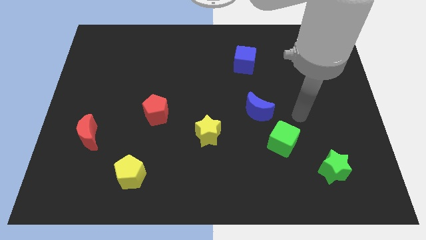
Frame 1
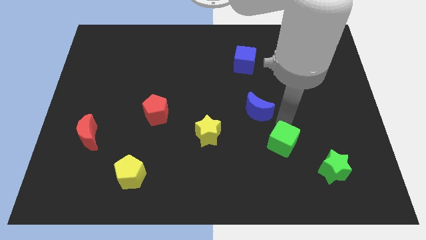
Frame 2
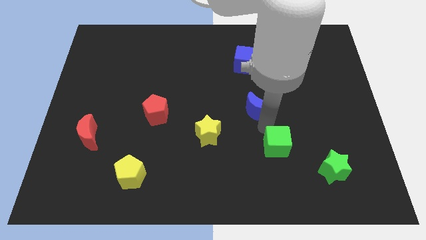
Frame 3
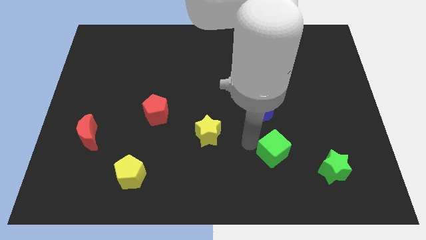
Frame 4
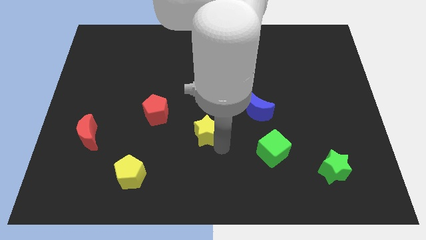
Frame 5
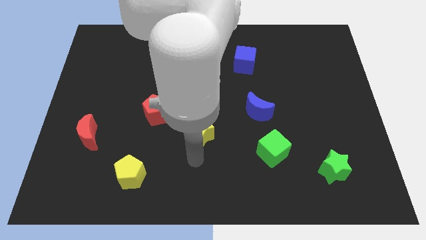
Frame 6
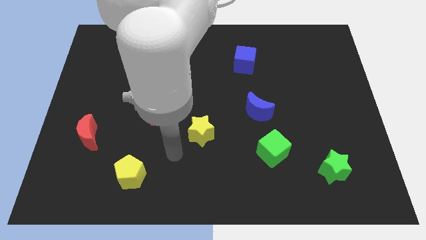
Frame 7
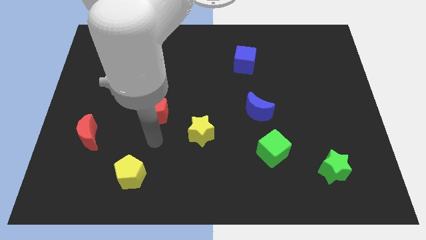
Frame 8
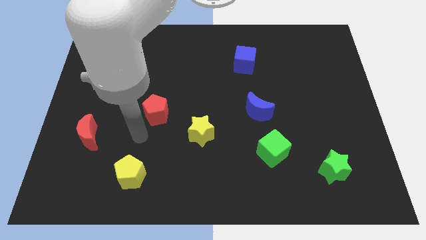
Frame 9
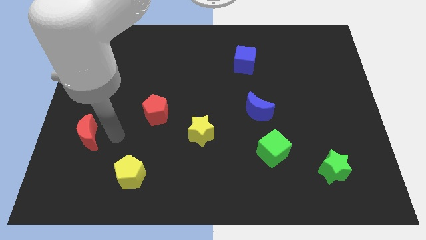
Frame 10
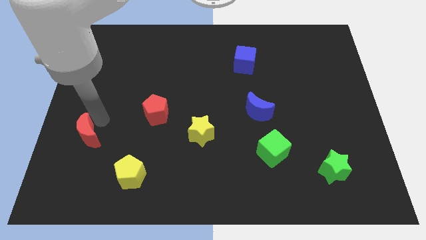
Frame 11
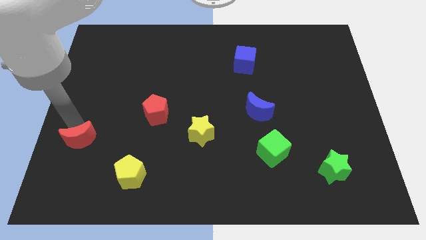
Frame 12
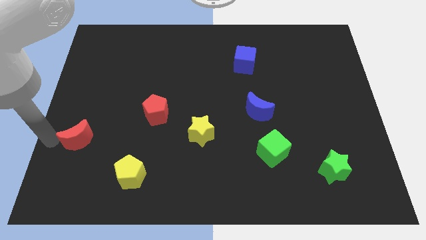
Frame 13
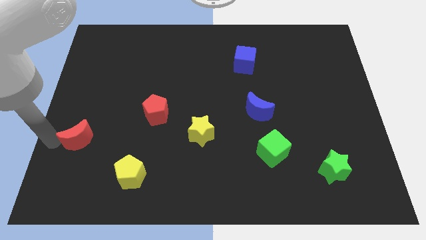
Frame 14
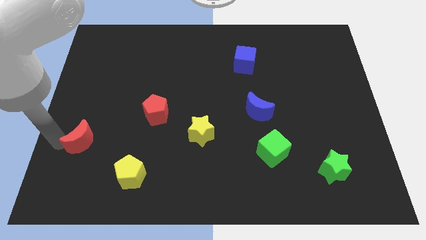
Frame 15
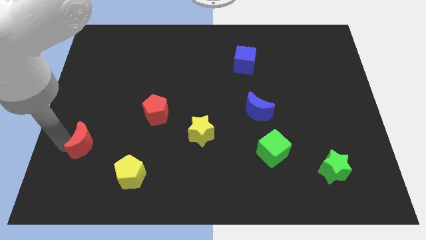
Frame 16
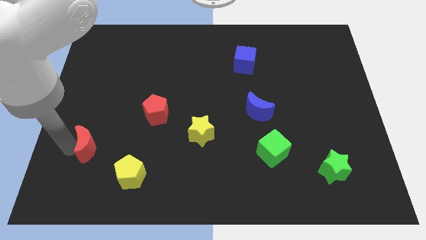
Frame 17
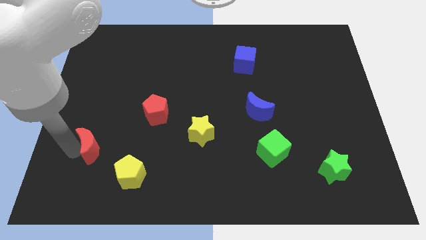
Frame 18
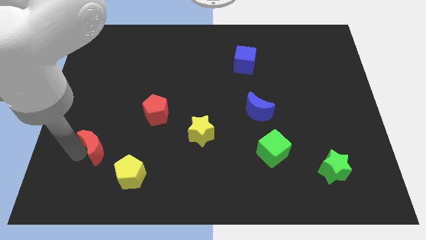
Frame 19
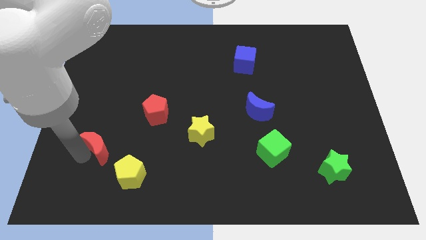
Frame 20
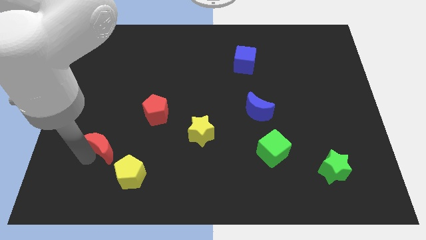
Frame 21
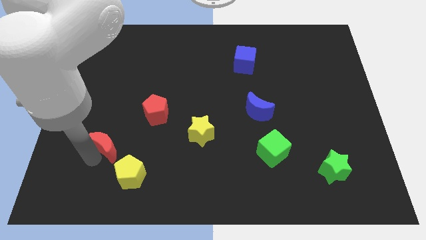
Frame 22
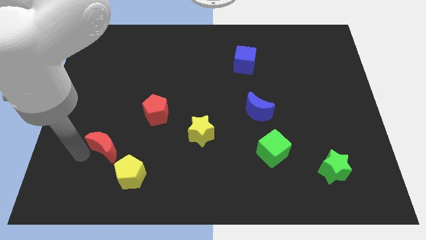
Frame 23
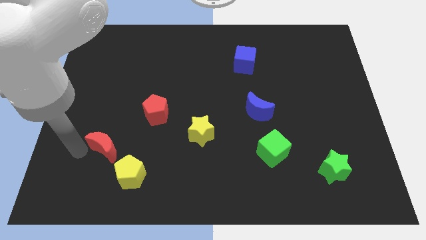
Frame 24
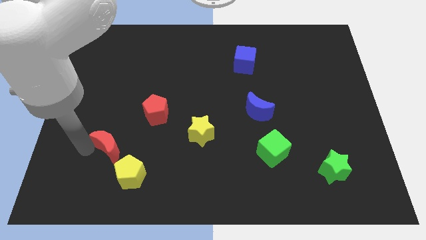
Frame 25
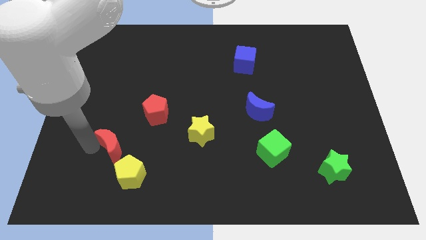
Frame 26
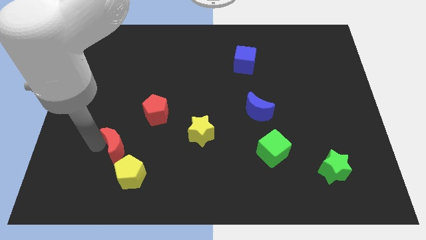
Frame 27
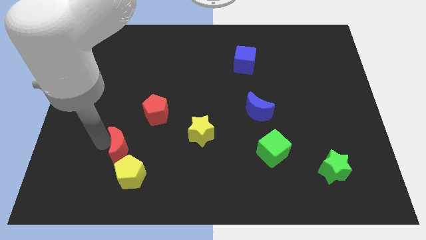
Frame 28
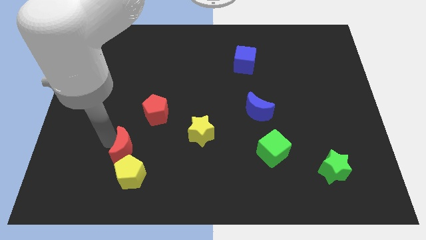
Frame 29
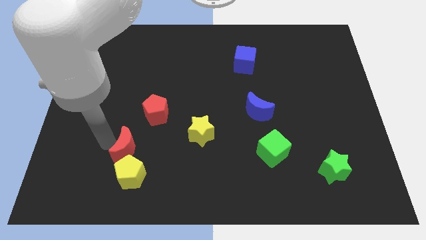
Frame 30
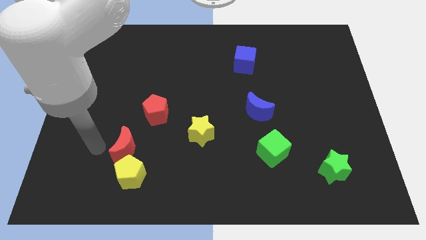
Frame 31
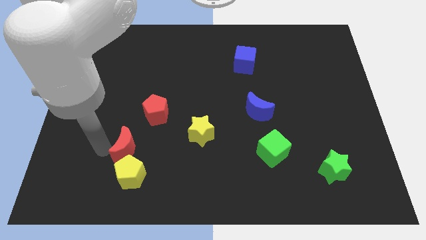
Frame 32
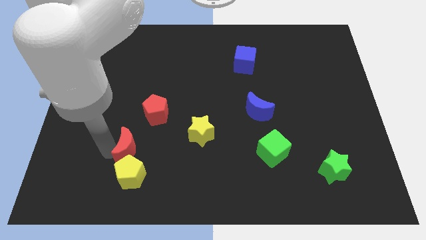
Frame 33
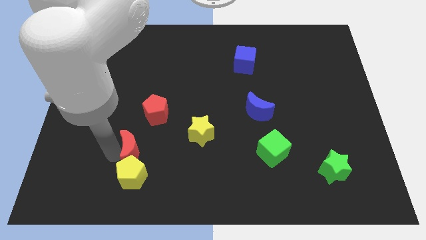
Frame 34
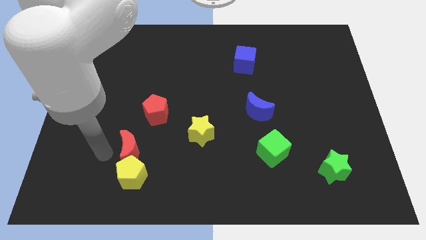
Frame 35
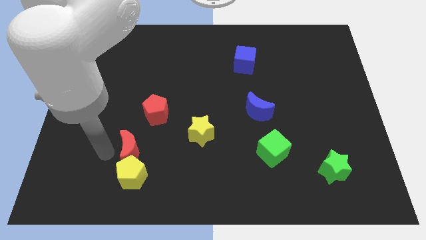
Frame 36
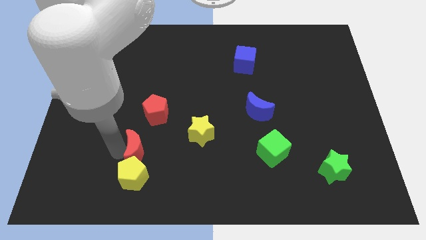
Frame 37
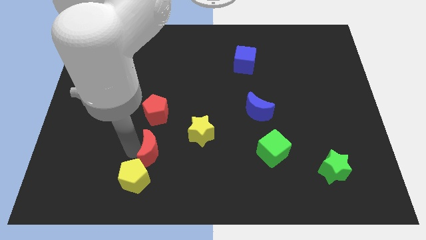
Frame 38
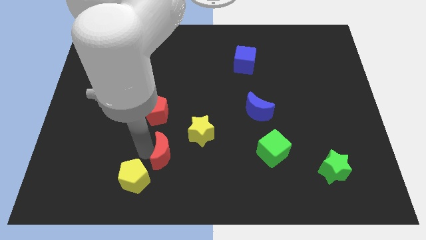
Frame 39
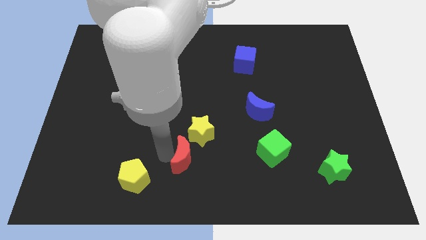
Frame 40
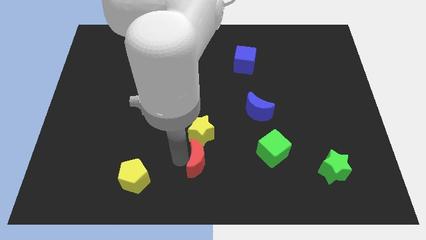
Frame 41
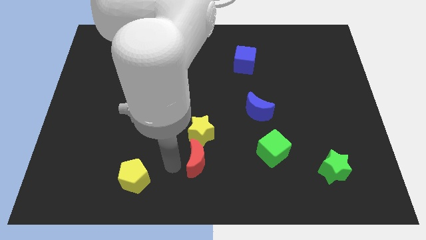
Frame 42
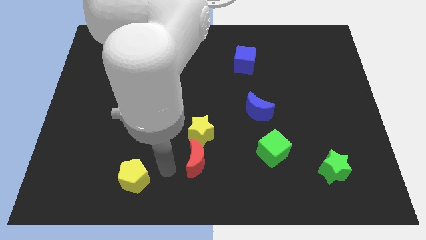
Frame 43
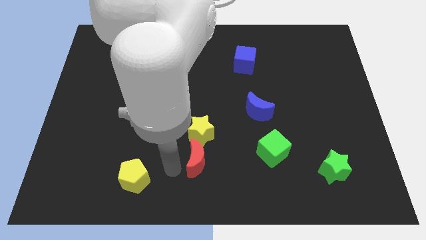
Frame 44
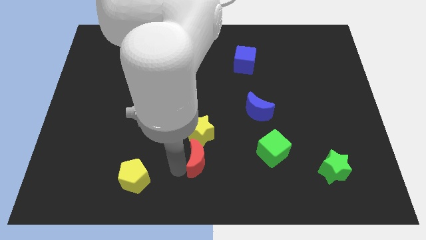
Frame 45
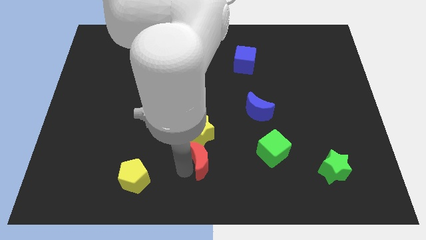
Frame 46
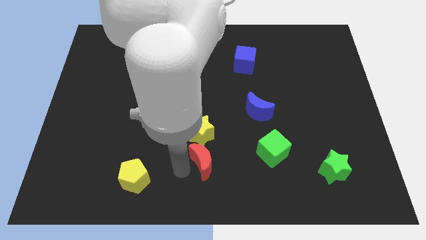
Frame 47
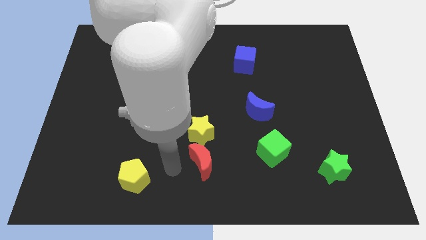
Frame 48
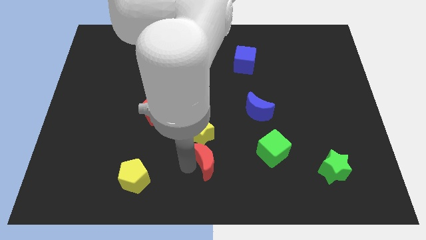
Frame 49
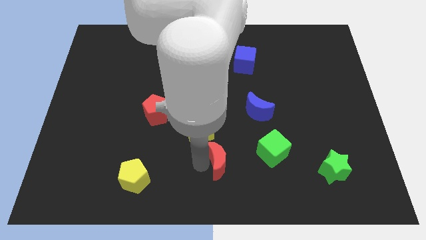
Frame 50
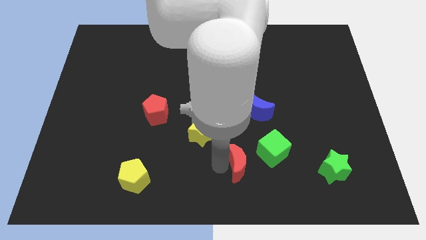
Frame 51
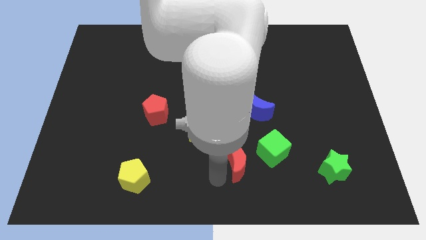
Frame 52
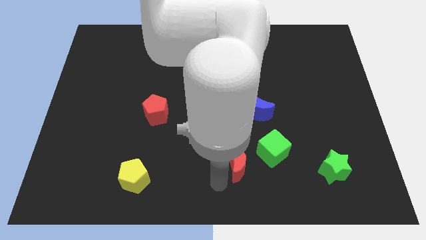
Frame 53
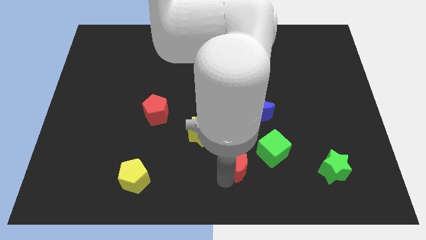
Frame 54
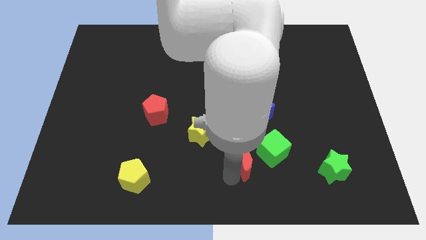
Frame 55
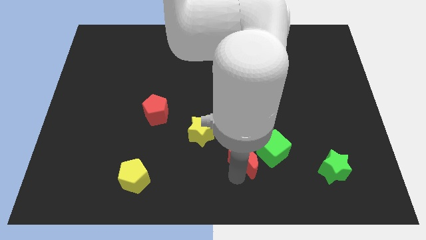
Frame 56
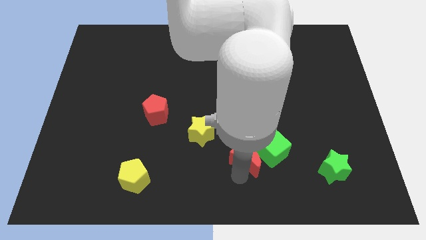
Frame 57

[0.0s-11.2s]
move the red moon next to the green cube

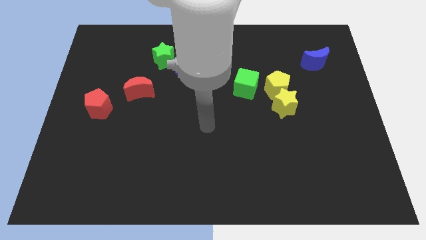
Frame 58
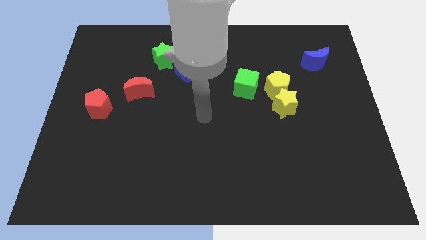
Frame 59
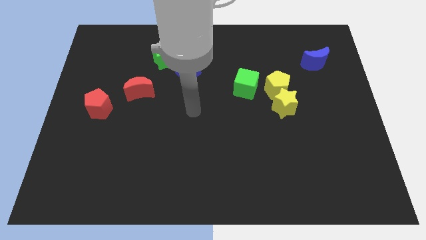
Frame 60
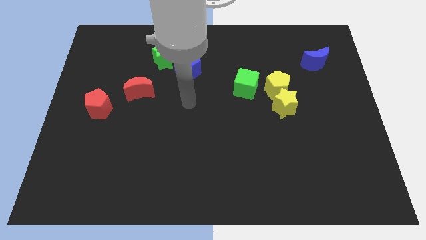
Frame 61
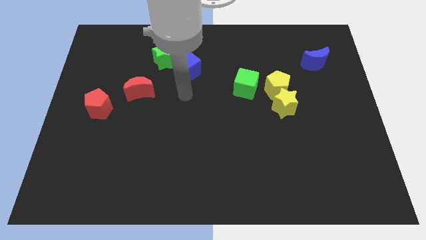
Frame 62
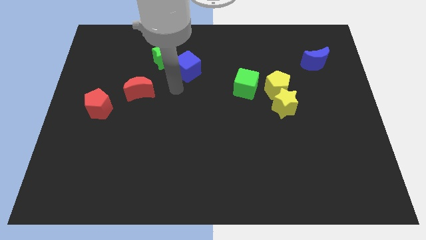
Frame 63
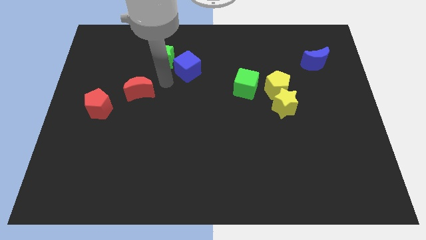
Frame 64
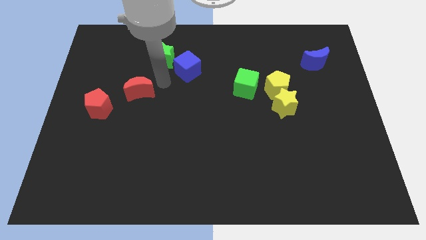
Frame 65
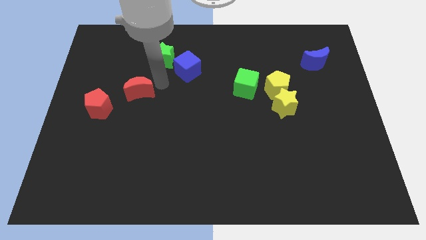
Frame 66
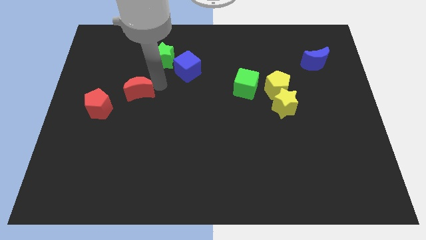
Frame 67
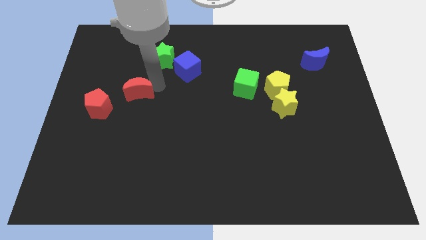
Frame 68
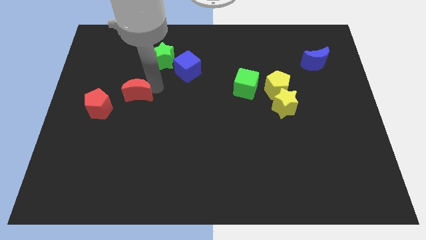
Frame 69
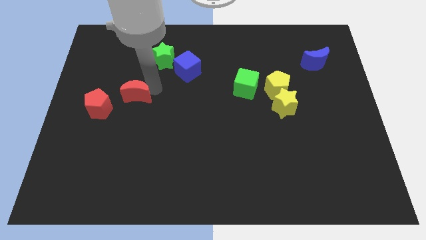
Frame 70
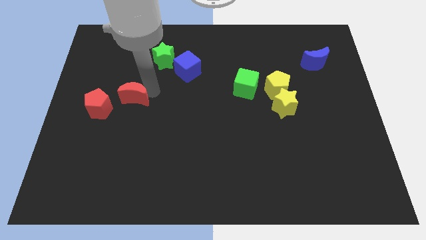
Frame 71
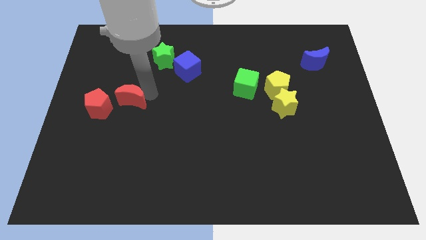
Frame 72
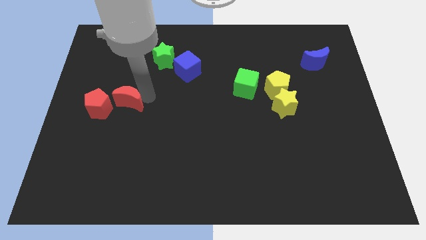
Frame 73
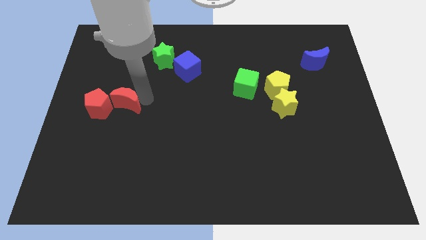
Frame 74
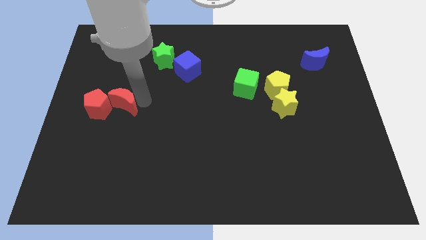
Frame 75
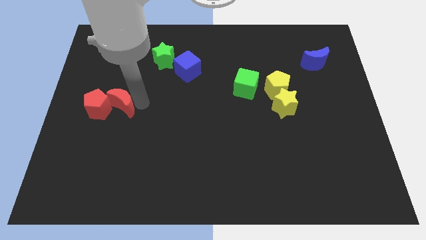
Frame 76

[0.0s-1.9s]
slide the red moon next to the red pentagon
